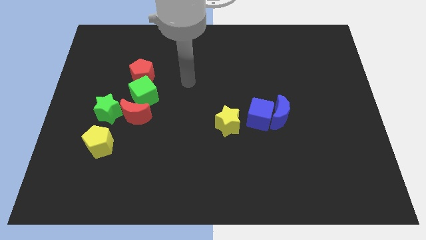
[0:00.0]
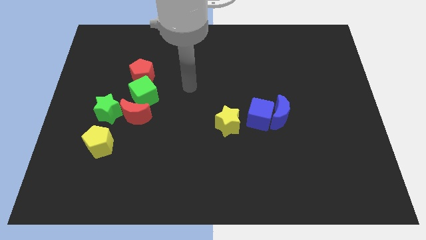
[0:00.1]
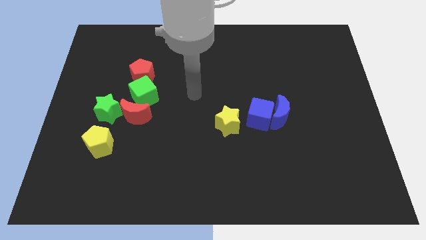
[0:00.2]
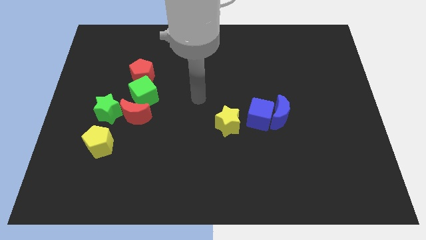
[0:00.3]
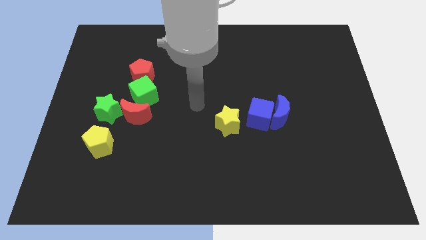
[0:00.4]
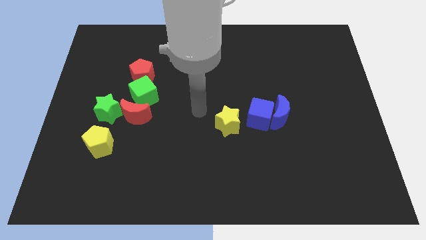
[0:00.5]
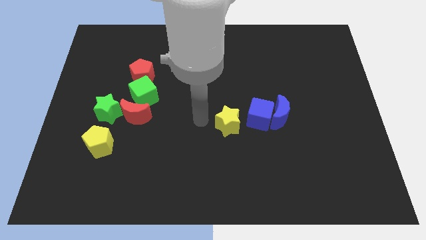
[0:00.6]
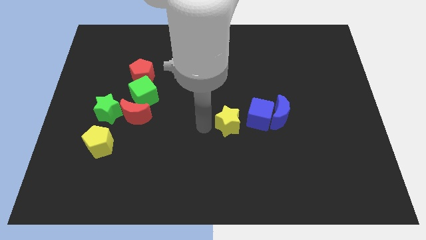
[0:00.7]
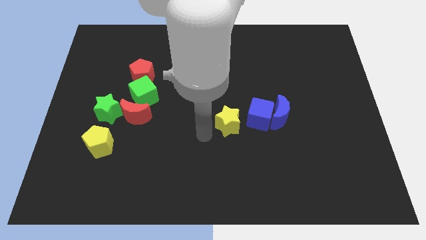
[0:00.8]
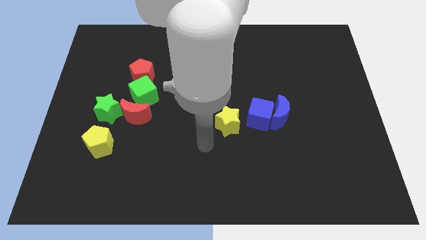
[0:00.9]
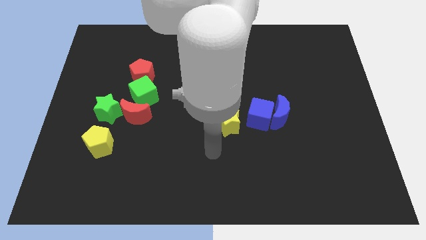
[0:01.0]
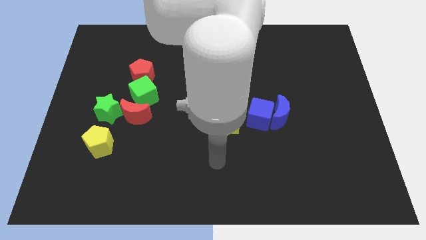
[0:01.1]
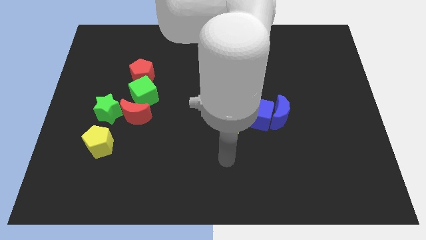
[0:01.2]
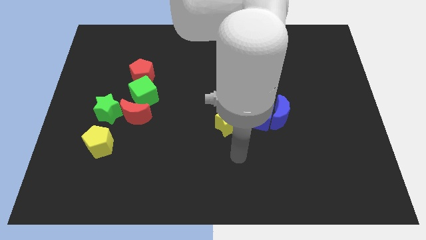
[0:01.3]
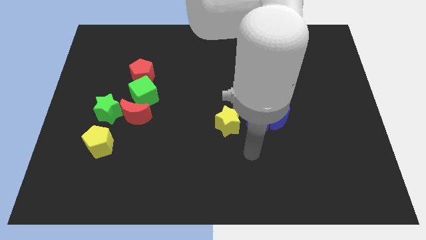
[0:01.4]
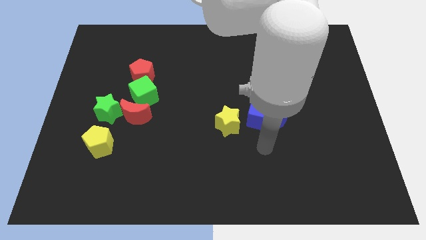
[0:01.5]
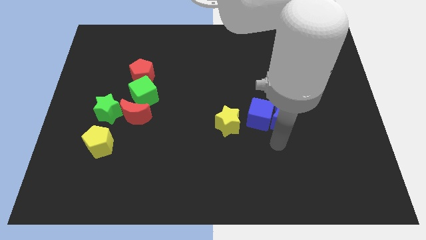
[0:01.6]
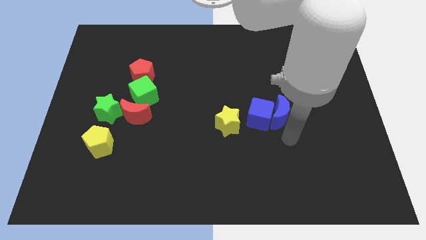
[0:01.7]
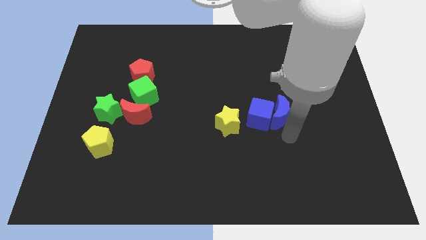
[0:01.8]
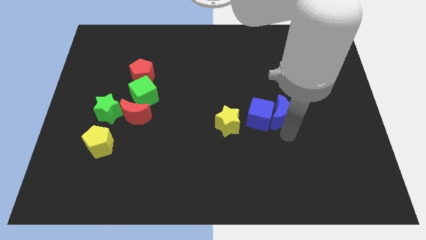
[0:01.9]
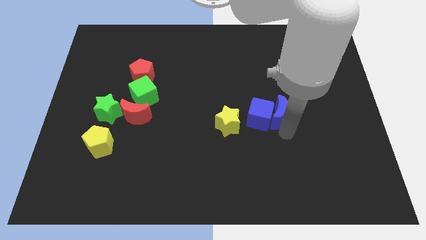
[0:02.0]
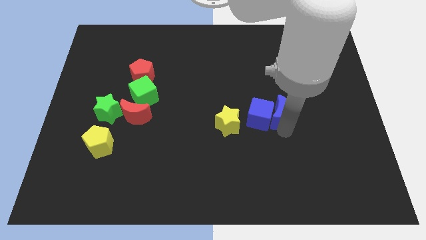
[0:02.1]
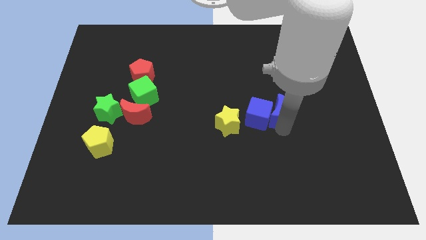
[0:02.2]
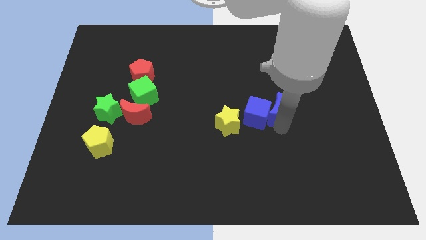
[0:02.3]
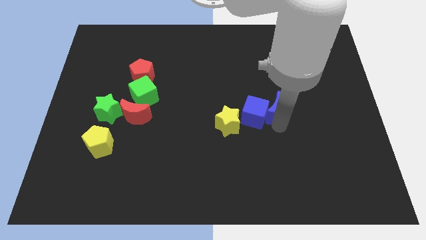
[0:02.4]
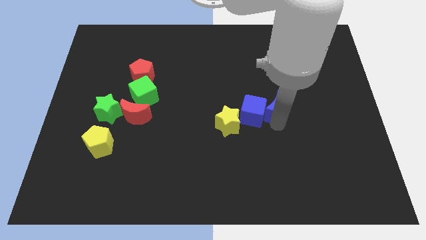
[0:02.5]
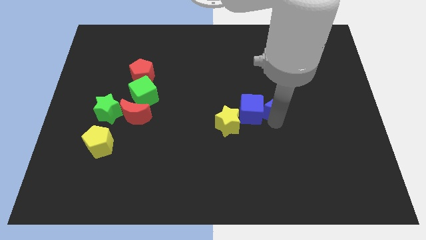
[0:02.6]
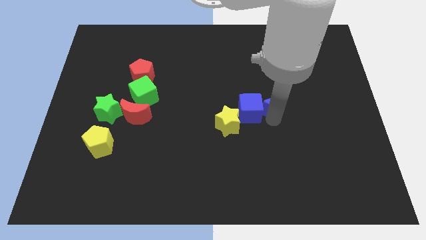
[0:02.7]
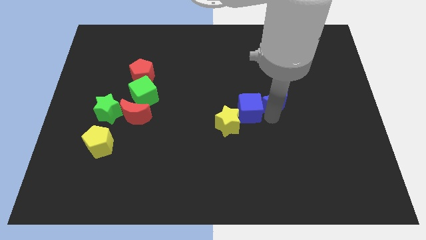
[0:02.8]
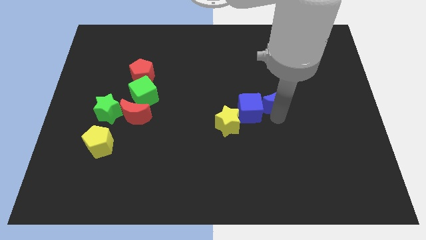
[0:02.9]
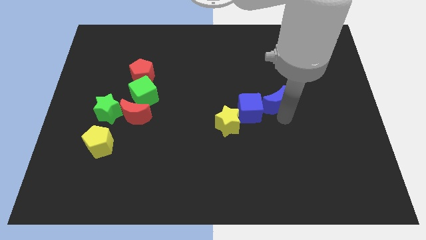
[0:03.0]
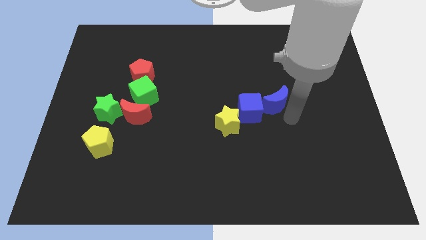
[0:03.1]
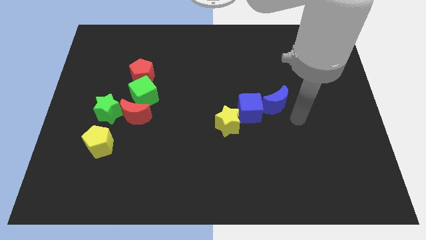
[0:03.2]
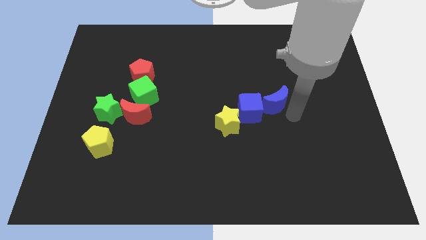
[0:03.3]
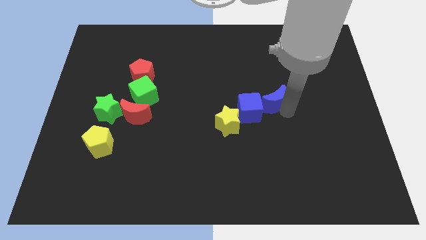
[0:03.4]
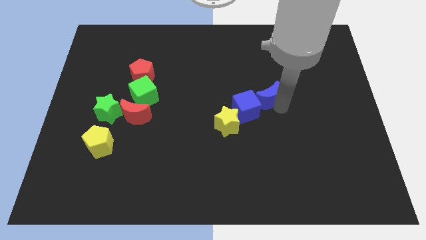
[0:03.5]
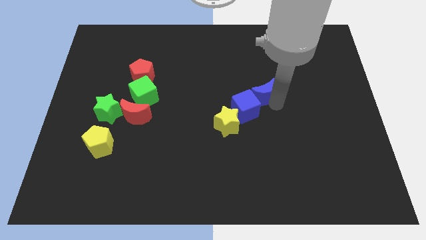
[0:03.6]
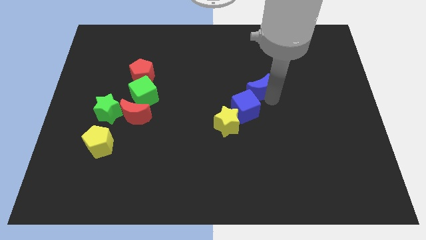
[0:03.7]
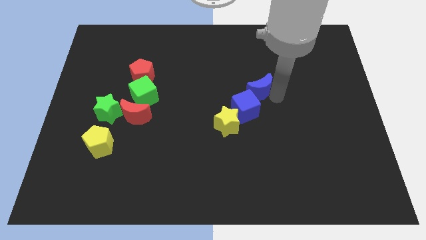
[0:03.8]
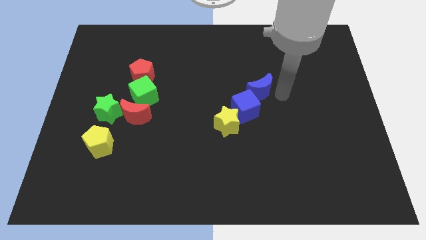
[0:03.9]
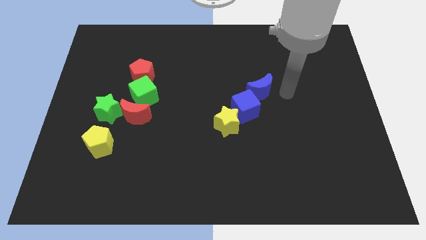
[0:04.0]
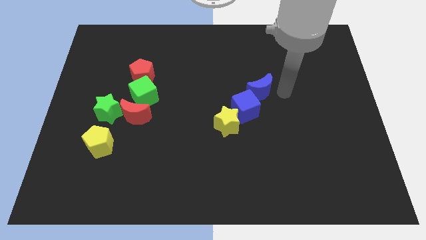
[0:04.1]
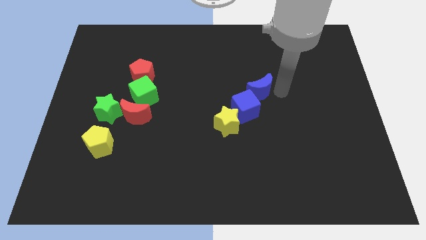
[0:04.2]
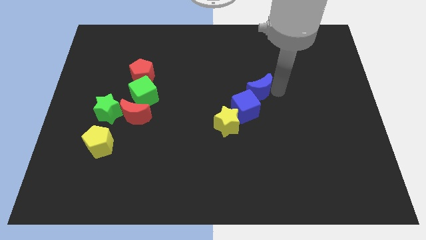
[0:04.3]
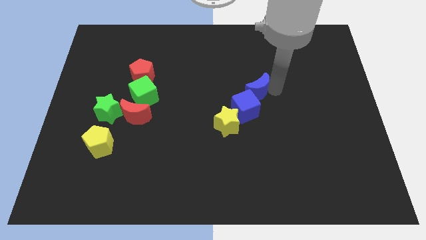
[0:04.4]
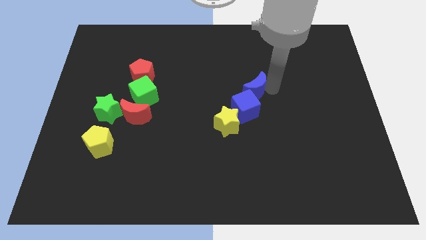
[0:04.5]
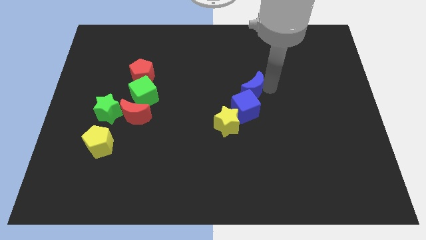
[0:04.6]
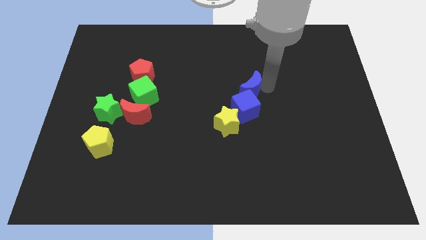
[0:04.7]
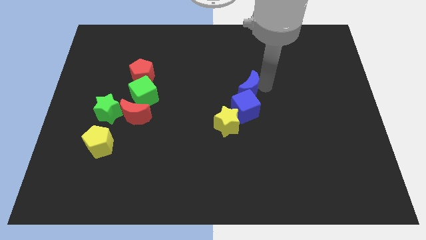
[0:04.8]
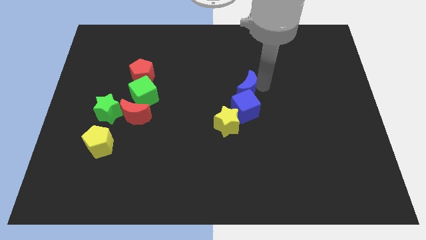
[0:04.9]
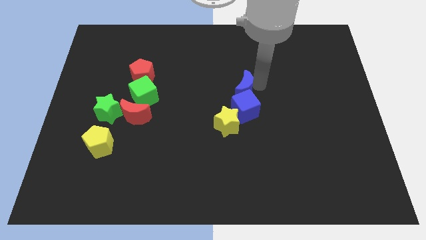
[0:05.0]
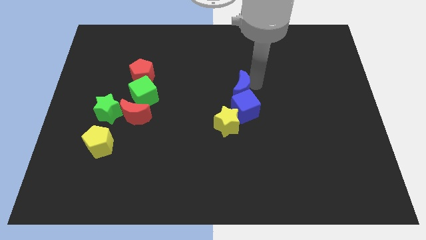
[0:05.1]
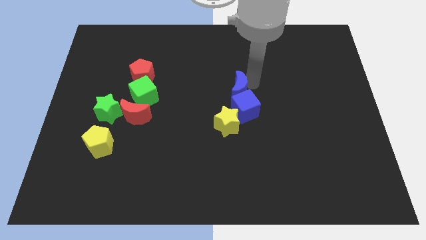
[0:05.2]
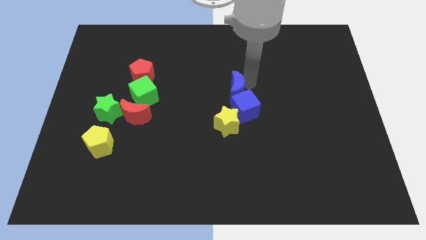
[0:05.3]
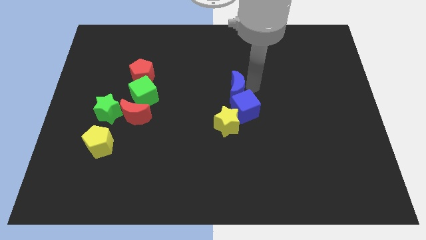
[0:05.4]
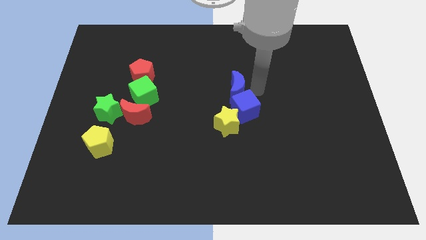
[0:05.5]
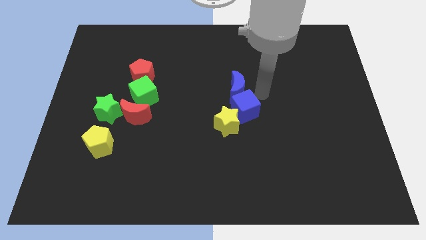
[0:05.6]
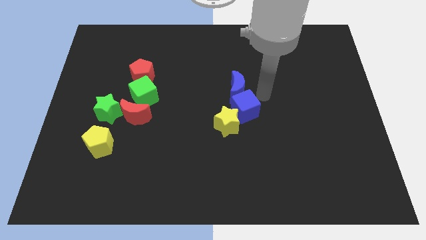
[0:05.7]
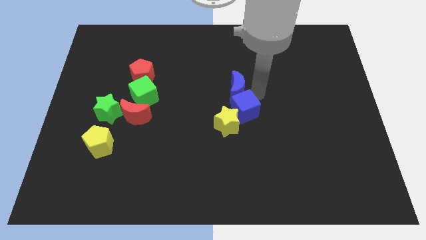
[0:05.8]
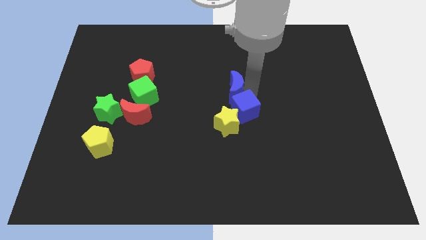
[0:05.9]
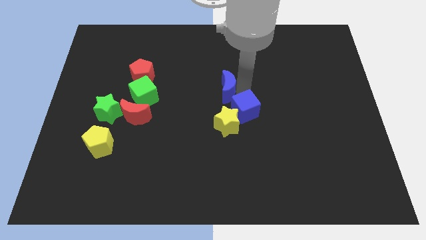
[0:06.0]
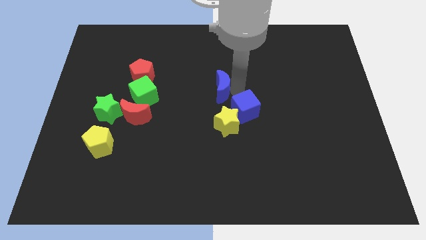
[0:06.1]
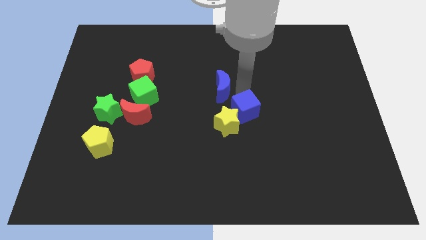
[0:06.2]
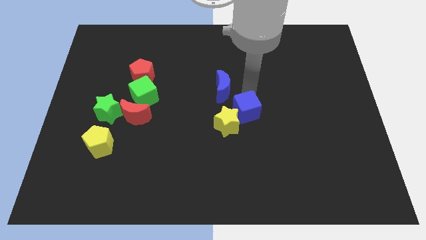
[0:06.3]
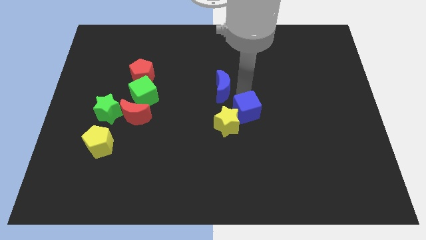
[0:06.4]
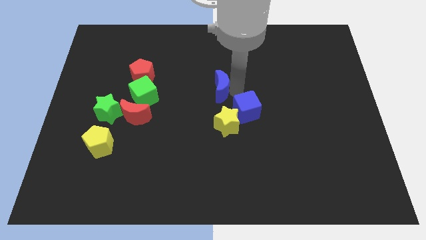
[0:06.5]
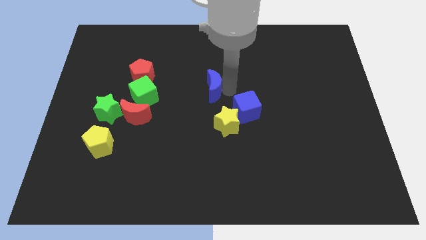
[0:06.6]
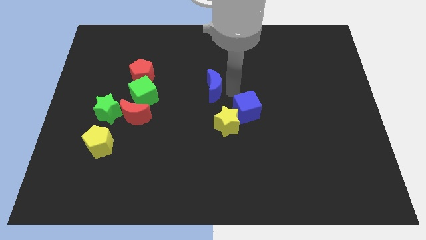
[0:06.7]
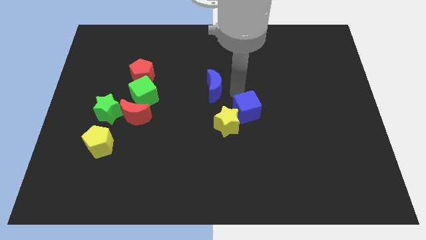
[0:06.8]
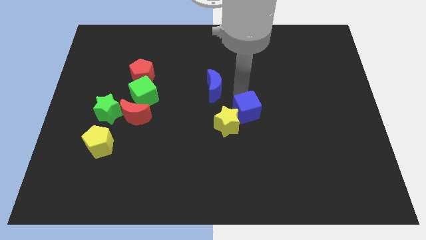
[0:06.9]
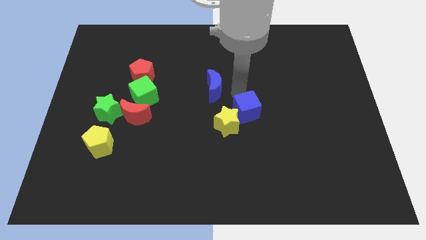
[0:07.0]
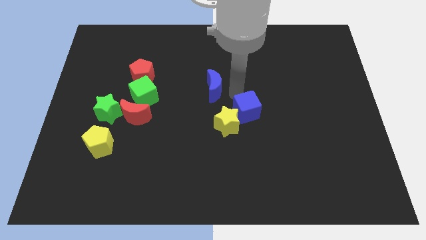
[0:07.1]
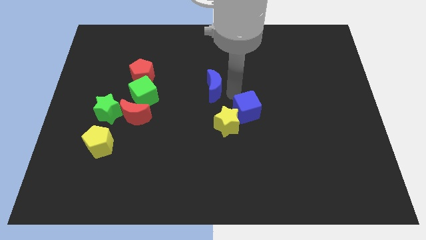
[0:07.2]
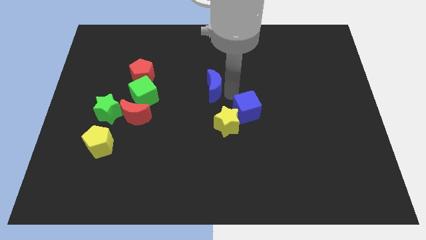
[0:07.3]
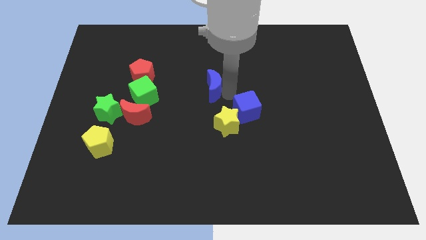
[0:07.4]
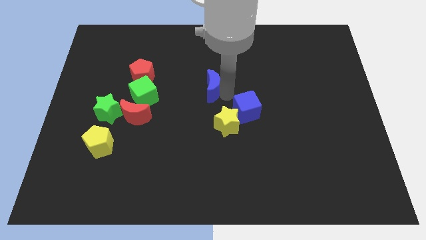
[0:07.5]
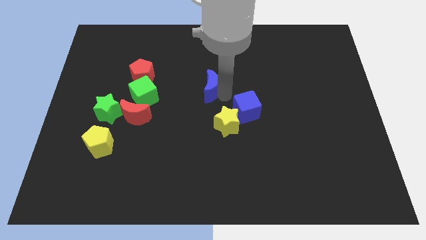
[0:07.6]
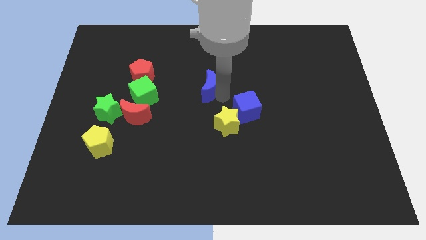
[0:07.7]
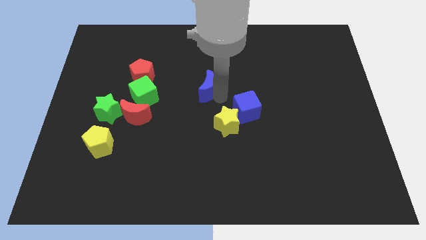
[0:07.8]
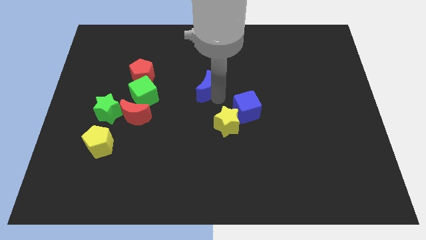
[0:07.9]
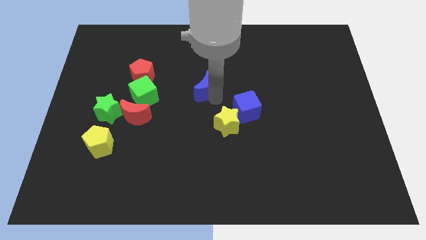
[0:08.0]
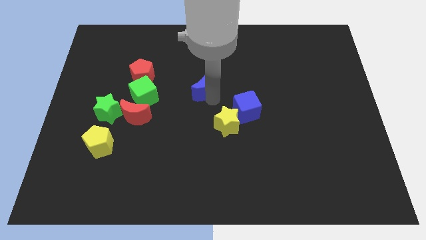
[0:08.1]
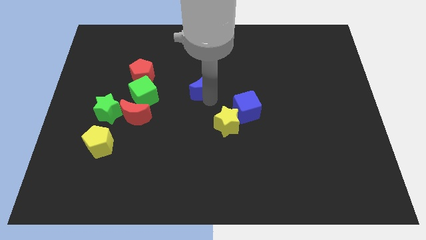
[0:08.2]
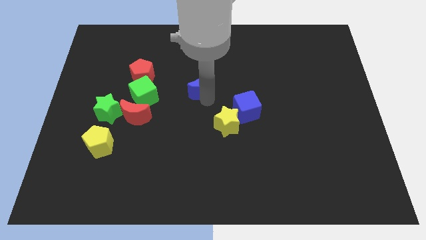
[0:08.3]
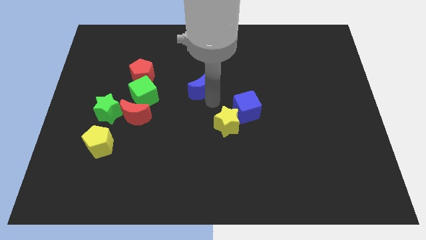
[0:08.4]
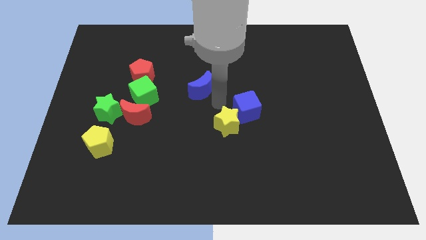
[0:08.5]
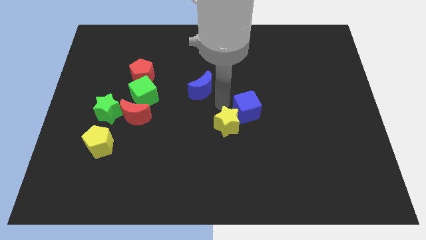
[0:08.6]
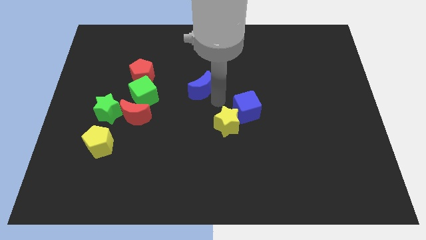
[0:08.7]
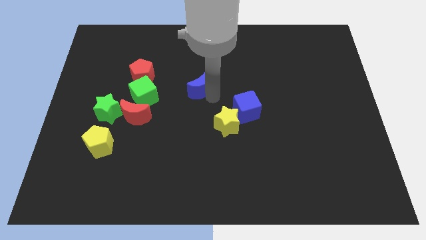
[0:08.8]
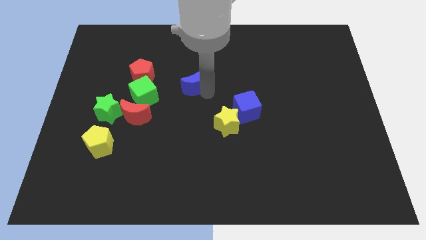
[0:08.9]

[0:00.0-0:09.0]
push the blue moon to the right side of the red pentagon
